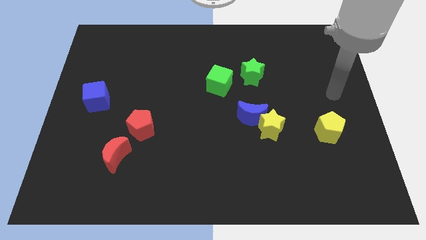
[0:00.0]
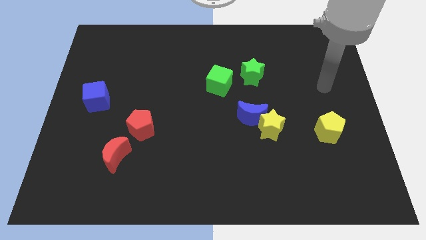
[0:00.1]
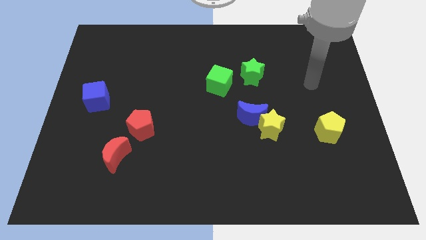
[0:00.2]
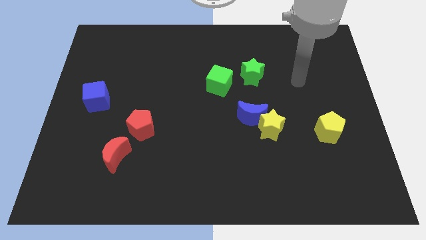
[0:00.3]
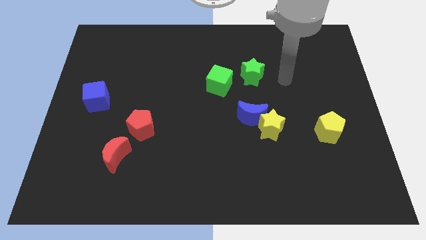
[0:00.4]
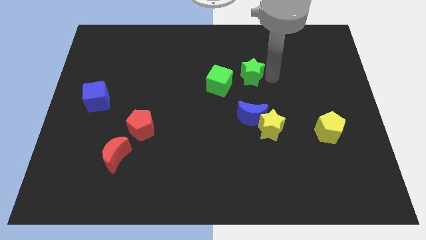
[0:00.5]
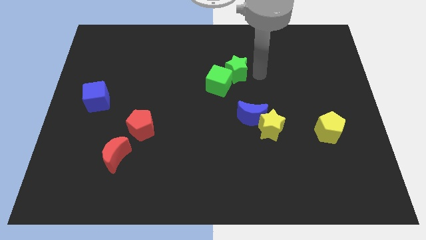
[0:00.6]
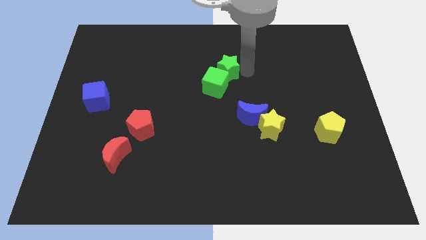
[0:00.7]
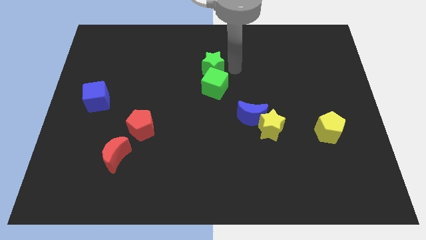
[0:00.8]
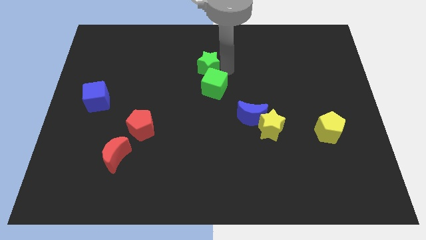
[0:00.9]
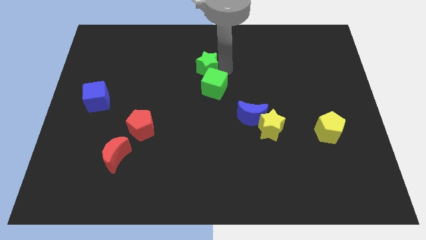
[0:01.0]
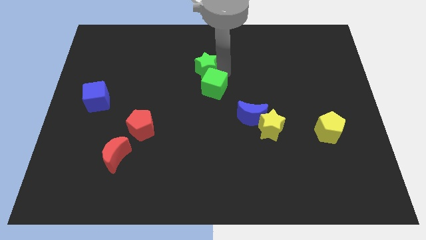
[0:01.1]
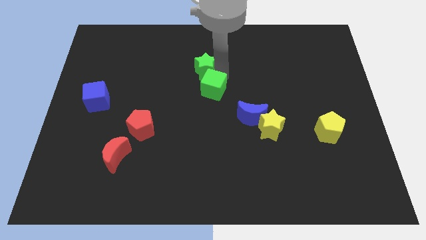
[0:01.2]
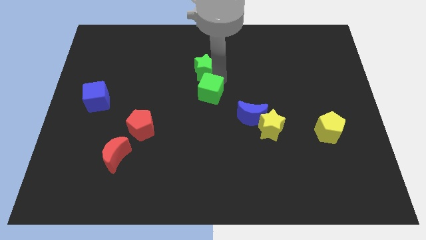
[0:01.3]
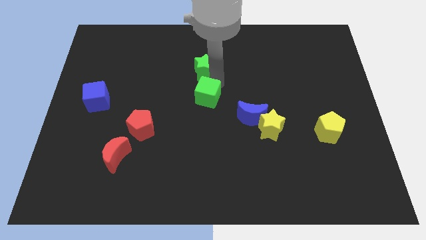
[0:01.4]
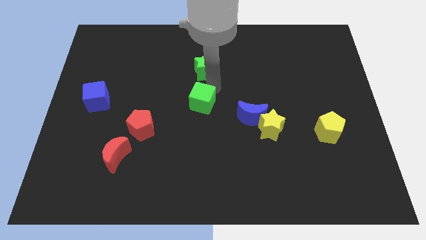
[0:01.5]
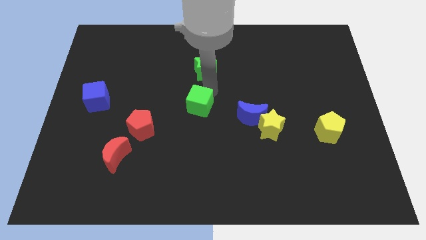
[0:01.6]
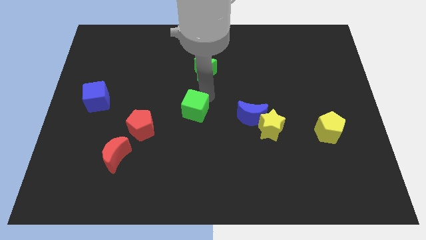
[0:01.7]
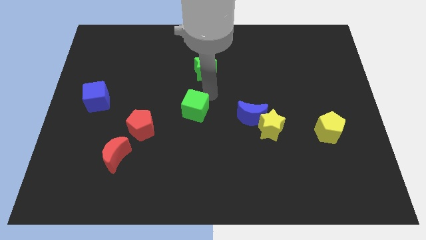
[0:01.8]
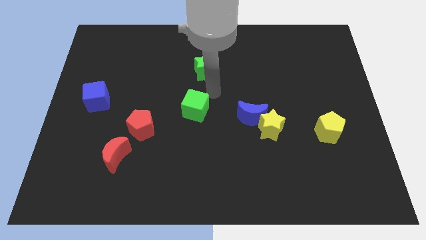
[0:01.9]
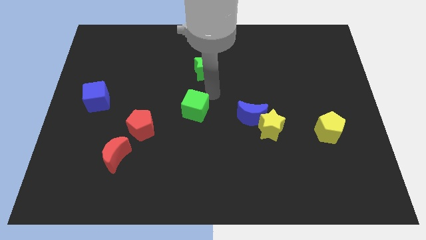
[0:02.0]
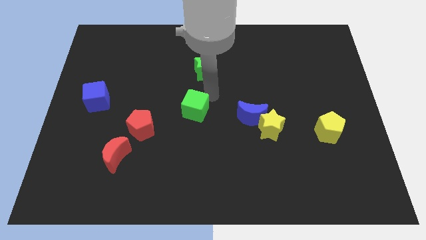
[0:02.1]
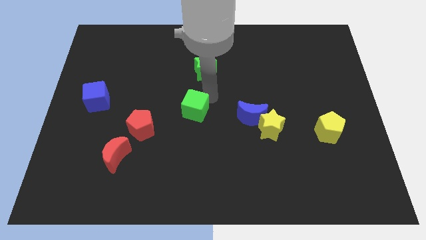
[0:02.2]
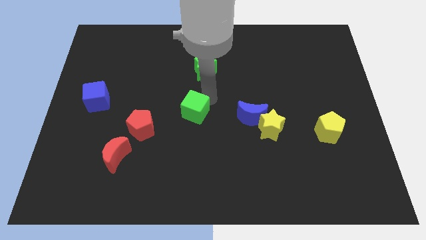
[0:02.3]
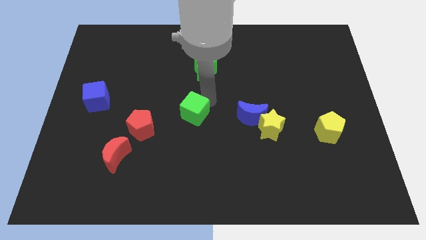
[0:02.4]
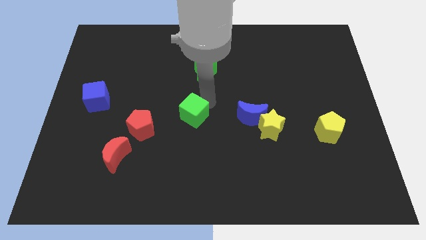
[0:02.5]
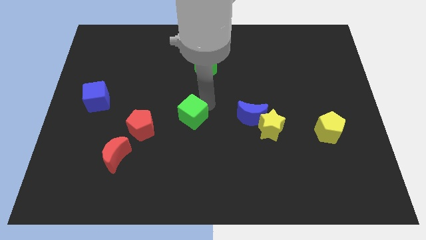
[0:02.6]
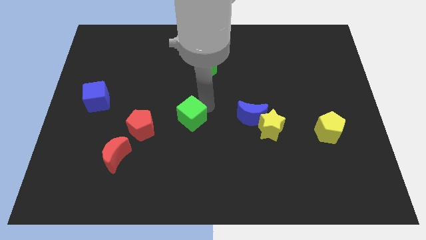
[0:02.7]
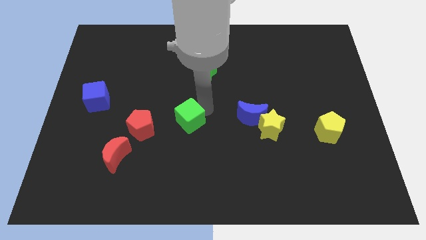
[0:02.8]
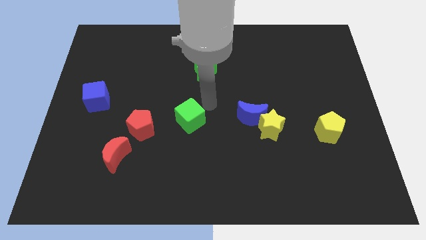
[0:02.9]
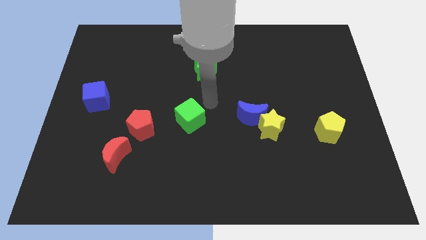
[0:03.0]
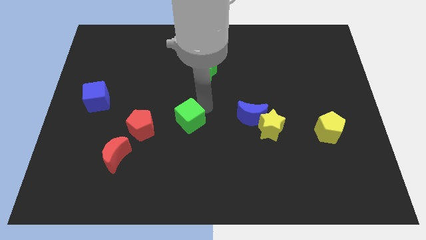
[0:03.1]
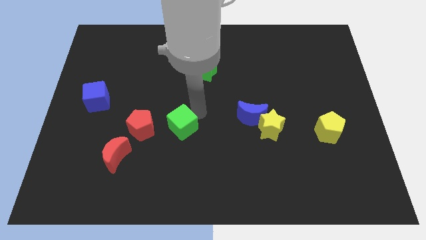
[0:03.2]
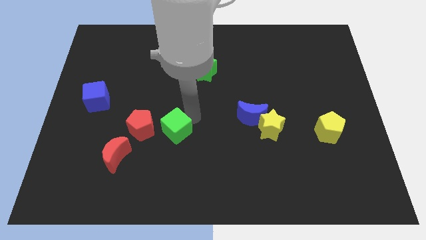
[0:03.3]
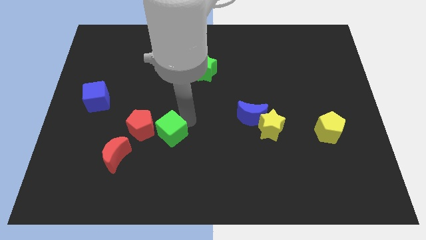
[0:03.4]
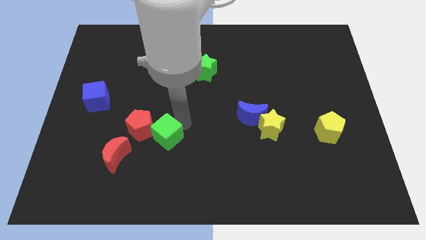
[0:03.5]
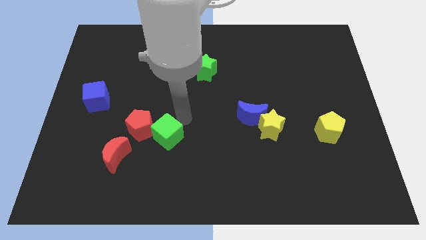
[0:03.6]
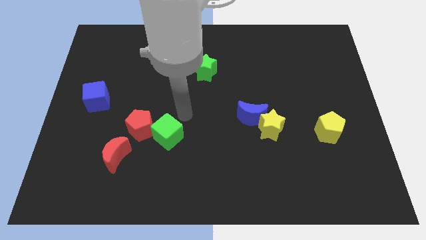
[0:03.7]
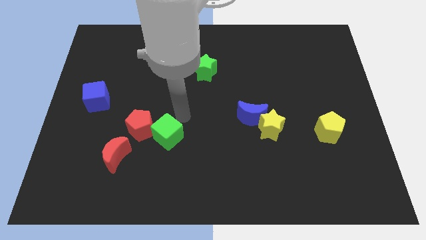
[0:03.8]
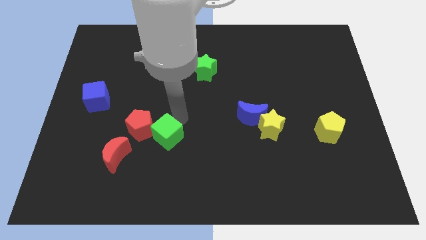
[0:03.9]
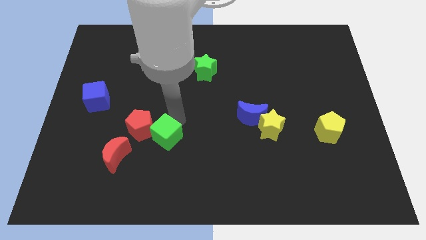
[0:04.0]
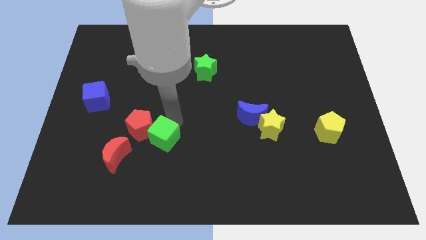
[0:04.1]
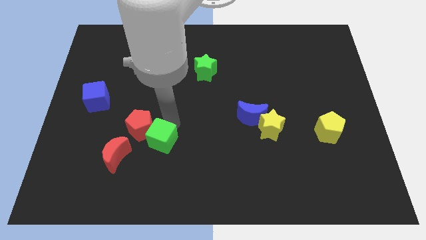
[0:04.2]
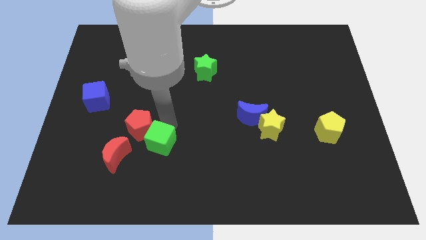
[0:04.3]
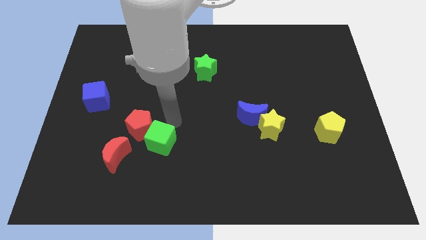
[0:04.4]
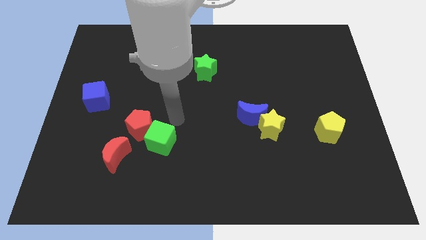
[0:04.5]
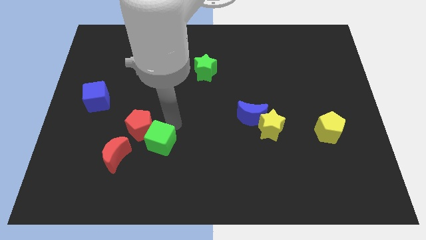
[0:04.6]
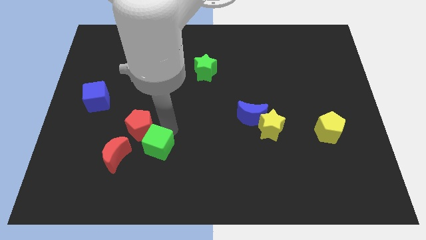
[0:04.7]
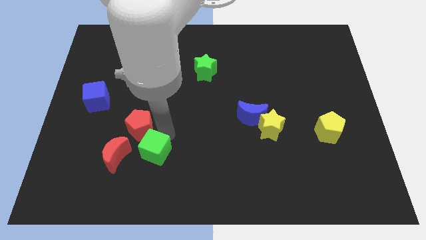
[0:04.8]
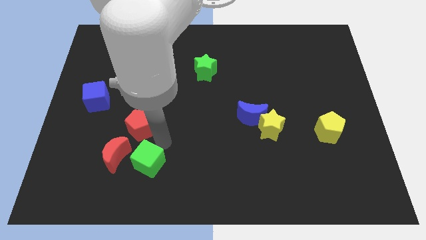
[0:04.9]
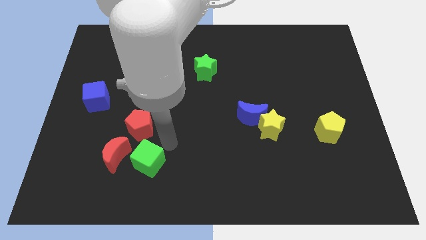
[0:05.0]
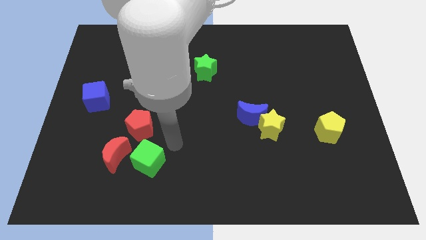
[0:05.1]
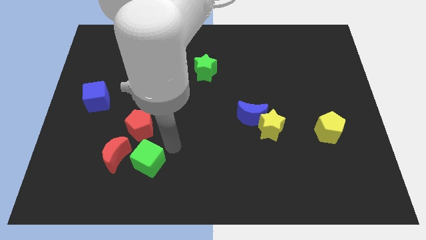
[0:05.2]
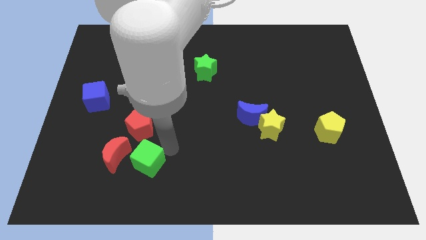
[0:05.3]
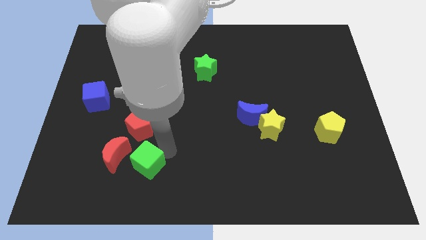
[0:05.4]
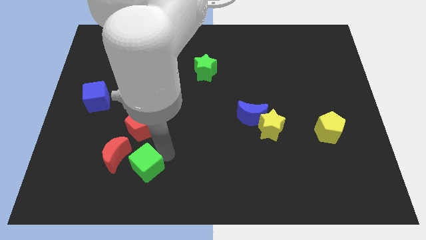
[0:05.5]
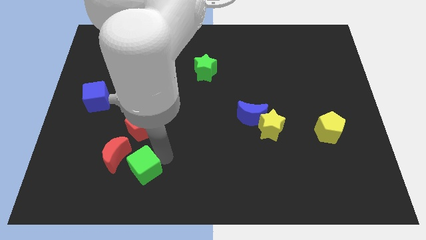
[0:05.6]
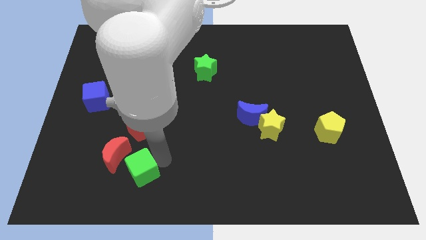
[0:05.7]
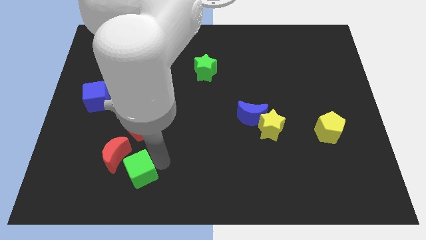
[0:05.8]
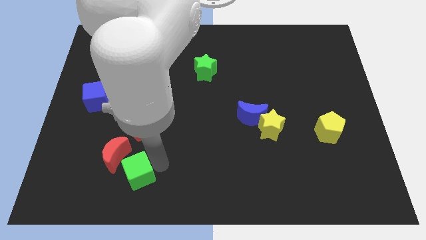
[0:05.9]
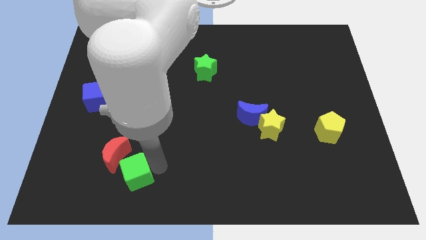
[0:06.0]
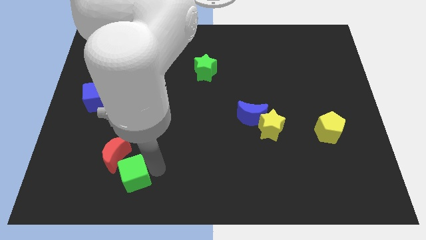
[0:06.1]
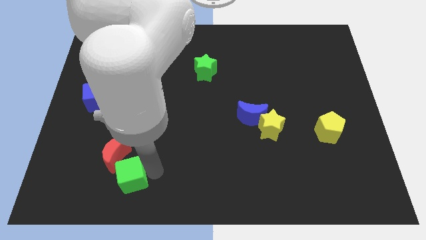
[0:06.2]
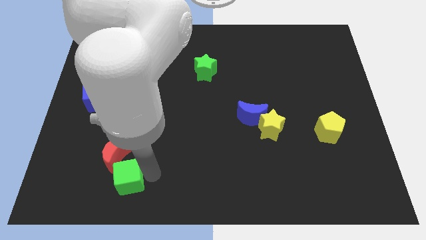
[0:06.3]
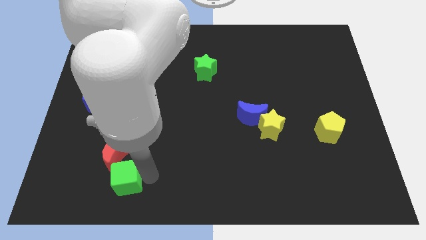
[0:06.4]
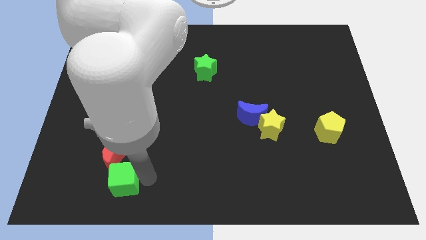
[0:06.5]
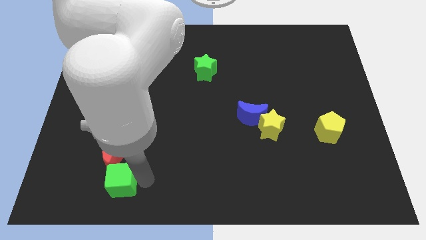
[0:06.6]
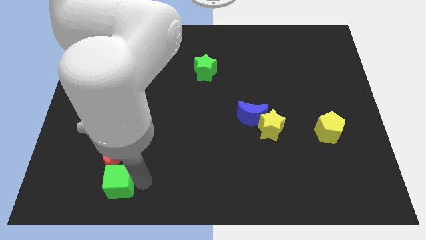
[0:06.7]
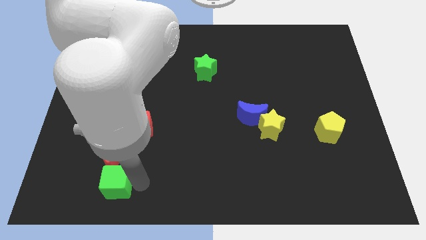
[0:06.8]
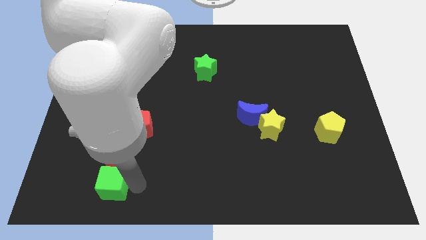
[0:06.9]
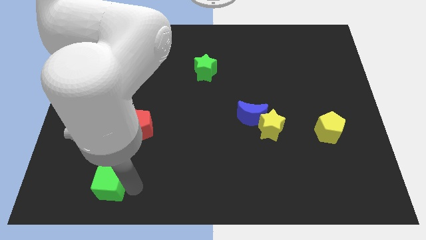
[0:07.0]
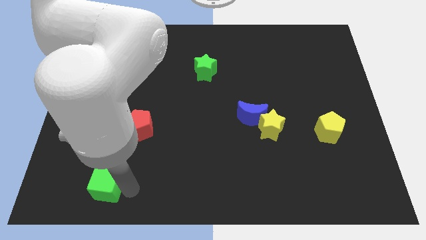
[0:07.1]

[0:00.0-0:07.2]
move the green cube to the bottom left side of the red moon
